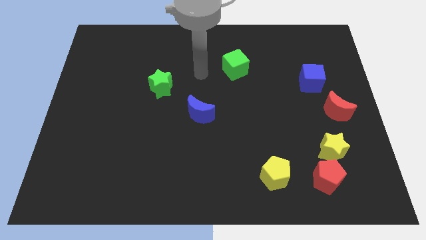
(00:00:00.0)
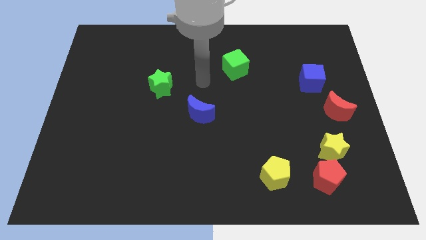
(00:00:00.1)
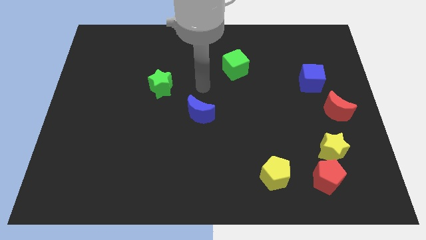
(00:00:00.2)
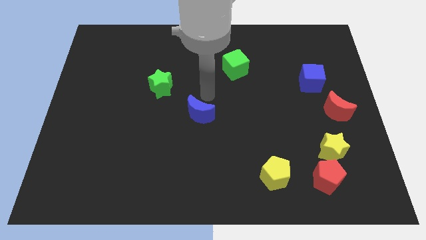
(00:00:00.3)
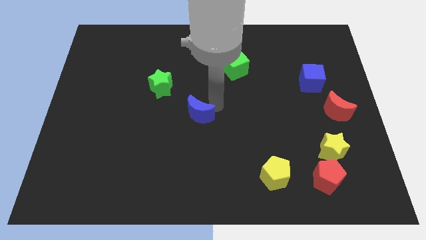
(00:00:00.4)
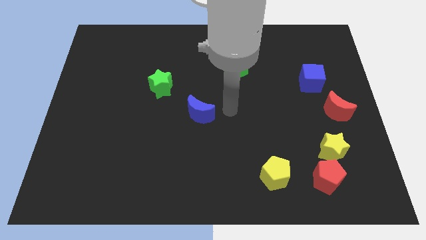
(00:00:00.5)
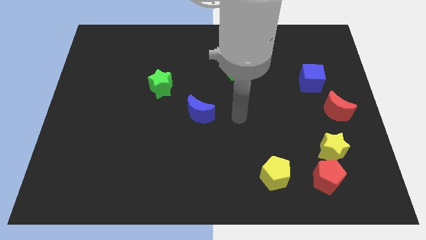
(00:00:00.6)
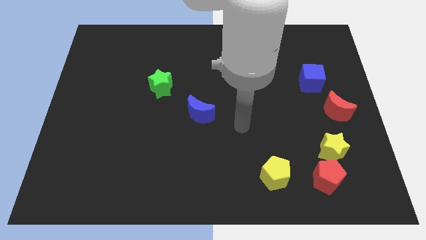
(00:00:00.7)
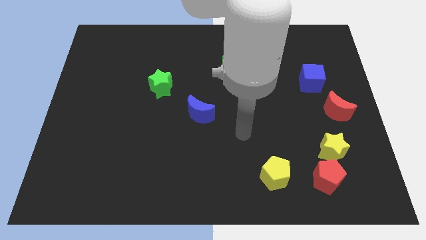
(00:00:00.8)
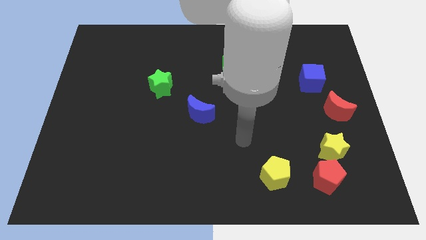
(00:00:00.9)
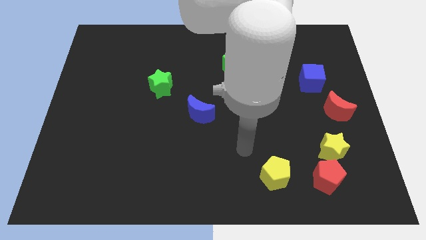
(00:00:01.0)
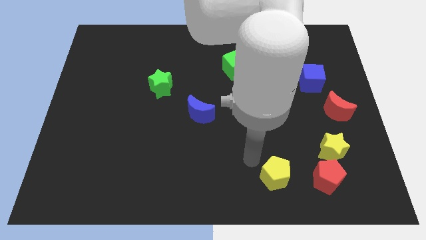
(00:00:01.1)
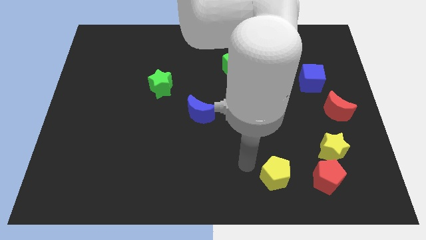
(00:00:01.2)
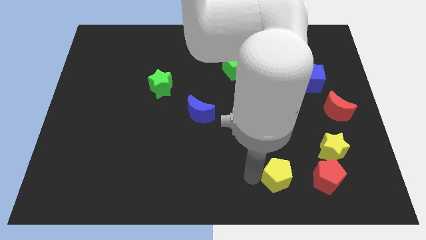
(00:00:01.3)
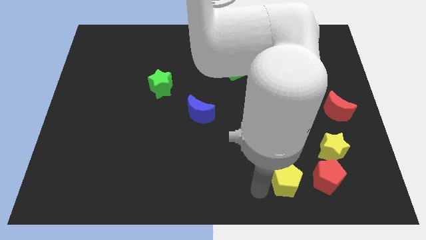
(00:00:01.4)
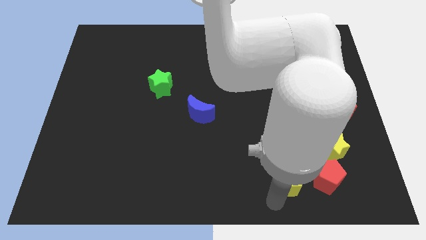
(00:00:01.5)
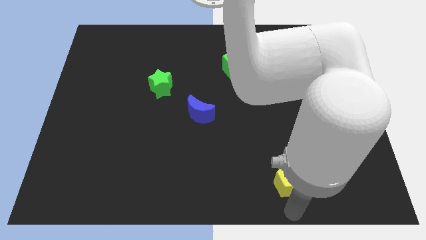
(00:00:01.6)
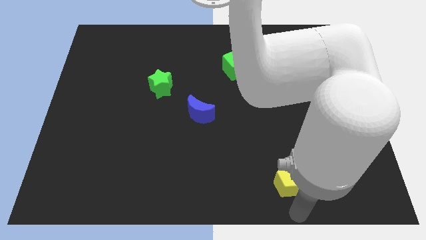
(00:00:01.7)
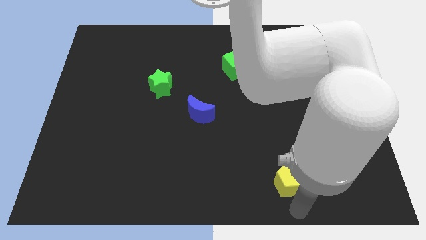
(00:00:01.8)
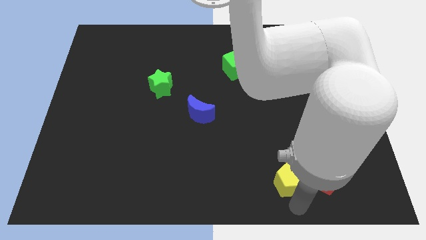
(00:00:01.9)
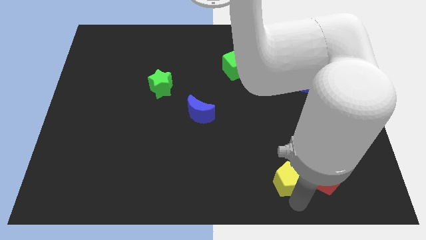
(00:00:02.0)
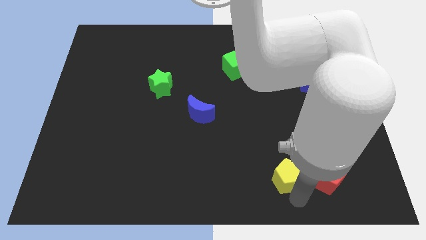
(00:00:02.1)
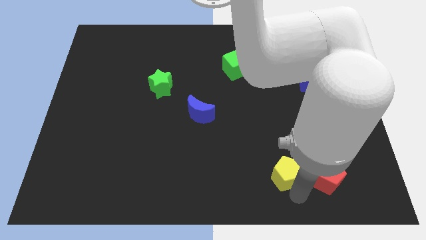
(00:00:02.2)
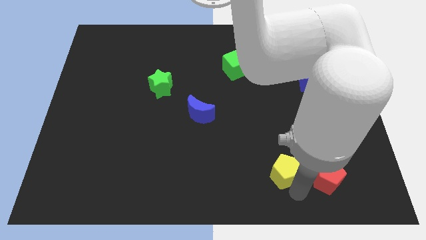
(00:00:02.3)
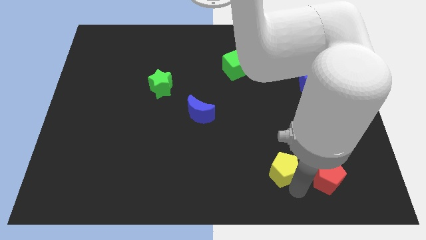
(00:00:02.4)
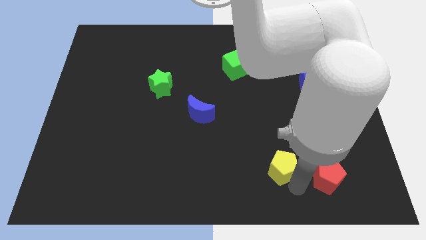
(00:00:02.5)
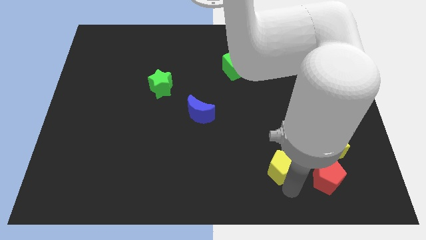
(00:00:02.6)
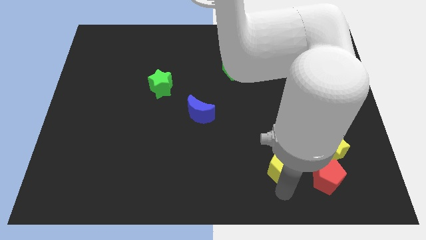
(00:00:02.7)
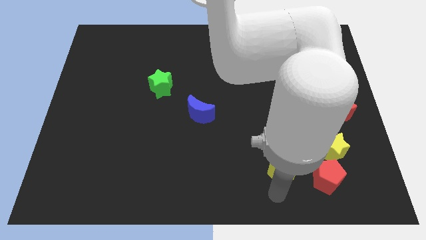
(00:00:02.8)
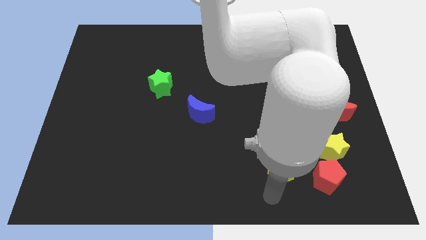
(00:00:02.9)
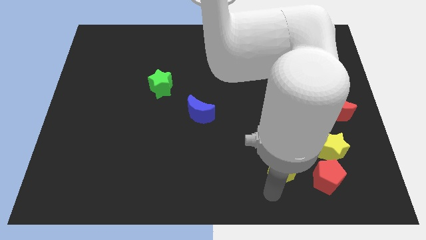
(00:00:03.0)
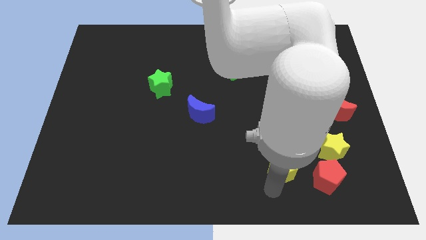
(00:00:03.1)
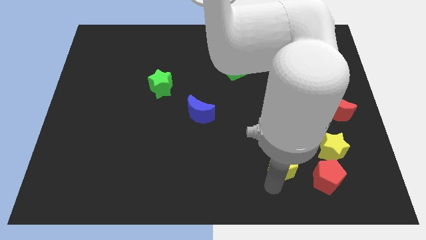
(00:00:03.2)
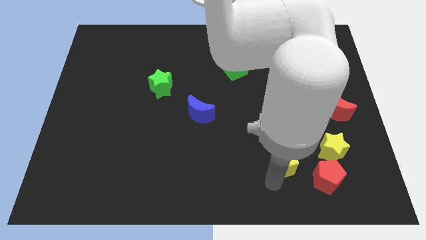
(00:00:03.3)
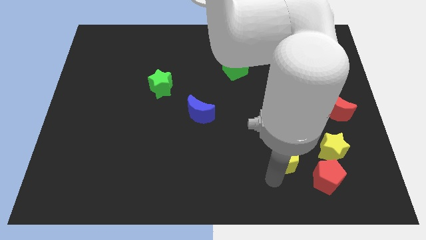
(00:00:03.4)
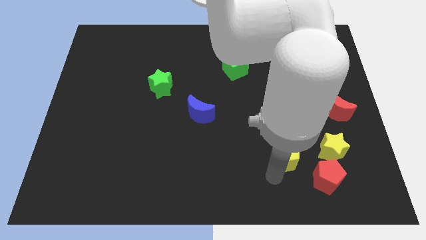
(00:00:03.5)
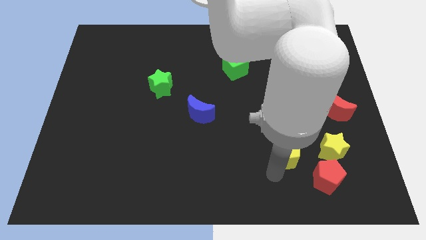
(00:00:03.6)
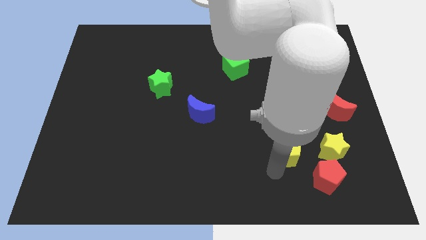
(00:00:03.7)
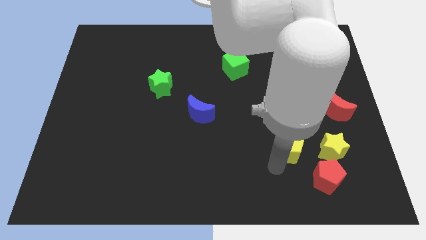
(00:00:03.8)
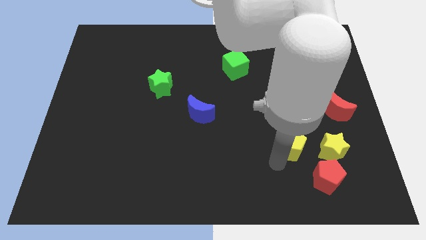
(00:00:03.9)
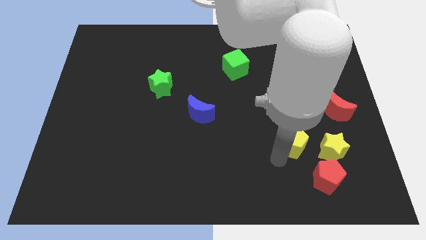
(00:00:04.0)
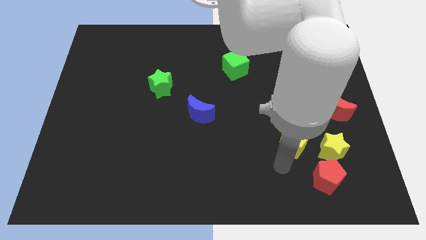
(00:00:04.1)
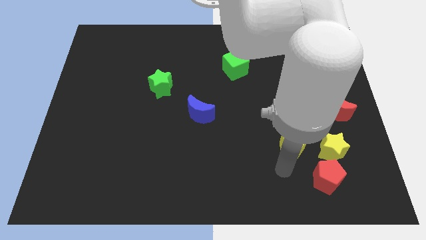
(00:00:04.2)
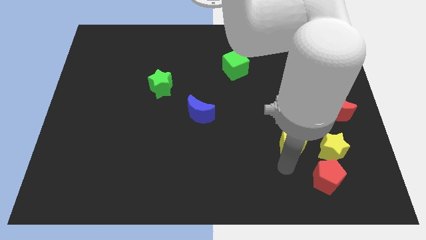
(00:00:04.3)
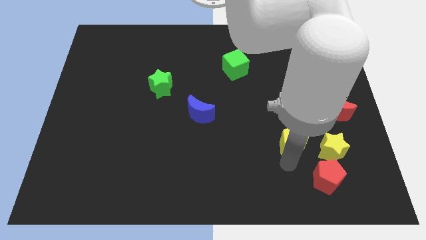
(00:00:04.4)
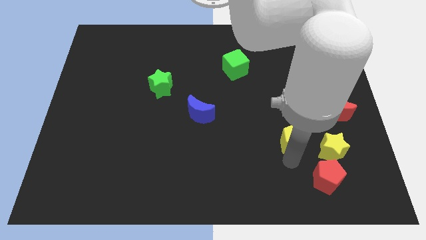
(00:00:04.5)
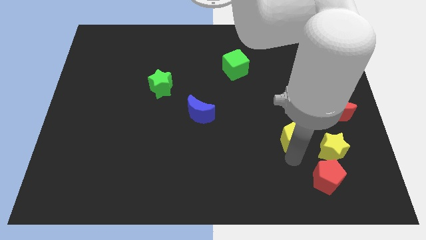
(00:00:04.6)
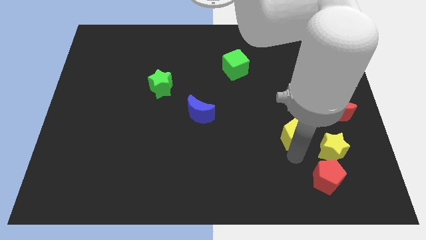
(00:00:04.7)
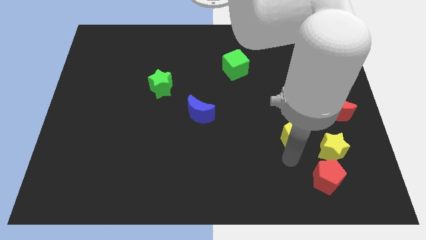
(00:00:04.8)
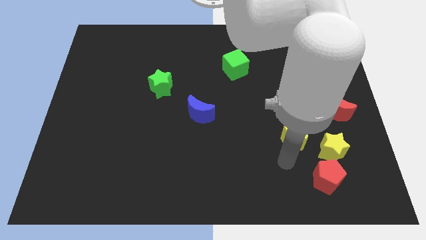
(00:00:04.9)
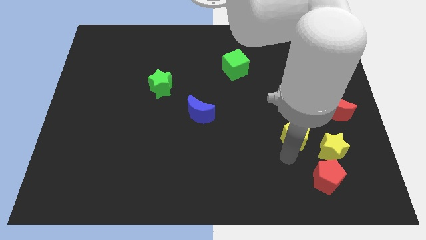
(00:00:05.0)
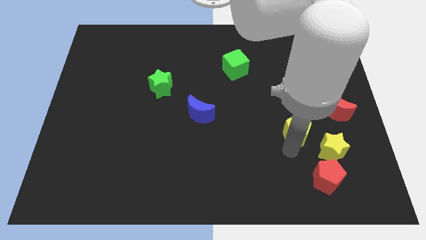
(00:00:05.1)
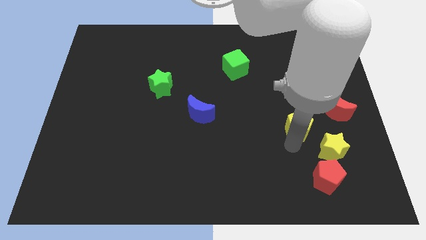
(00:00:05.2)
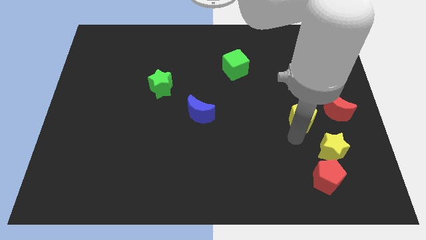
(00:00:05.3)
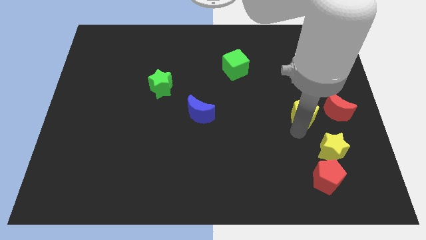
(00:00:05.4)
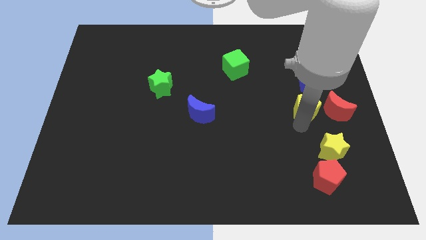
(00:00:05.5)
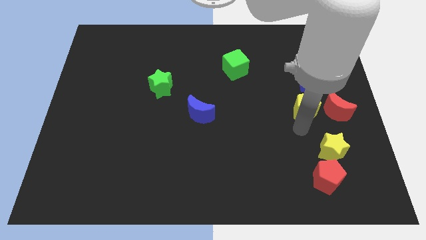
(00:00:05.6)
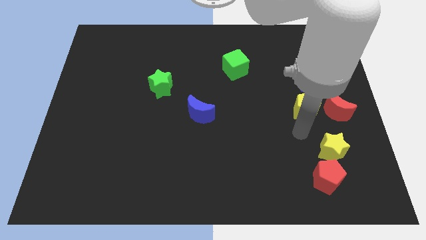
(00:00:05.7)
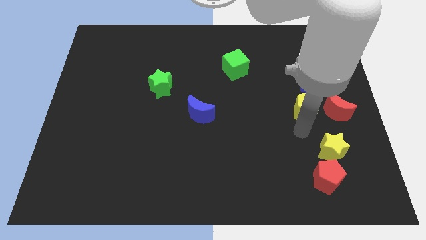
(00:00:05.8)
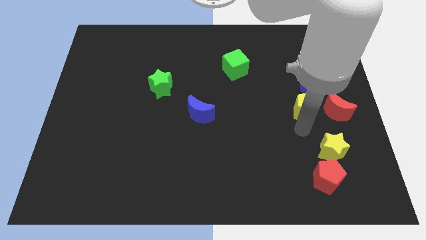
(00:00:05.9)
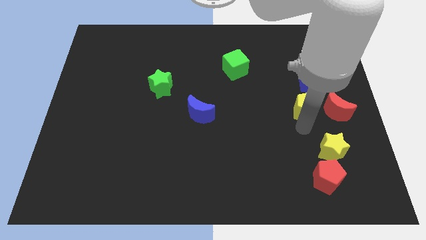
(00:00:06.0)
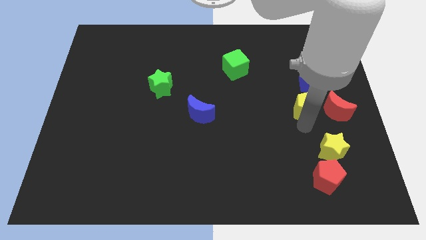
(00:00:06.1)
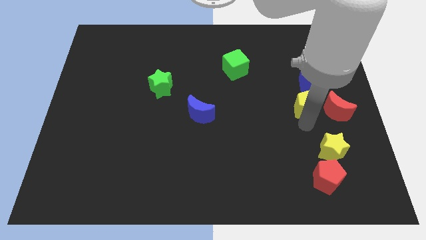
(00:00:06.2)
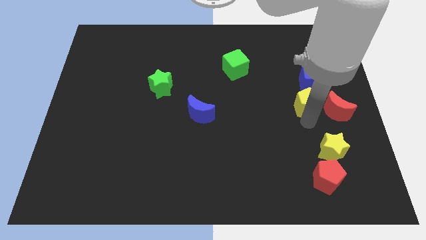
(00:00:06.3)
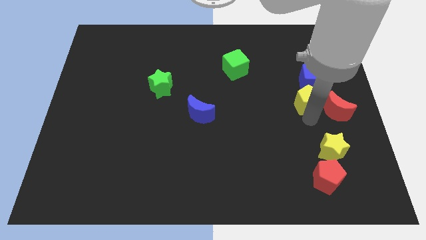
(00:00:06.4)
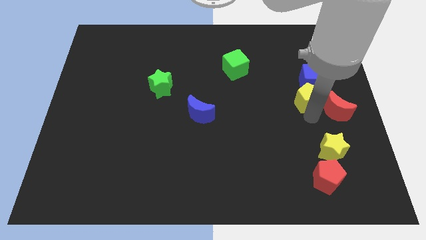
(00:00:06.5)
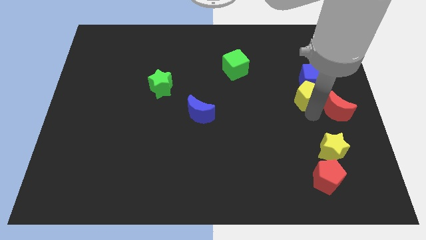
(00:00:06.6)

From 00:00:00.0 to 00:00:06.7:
put the yellow pentagon to the blue cube

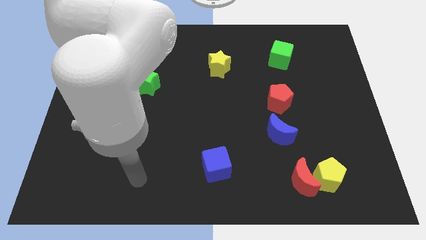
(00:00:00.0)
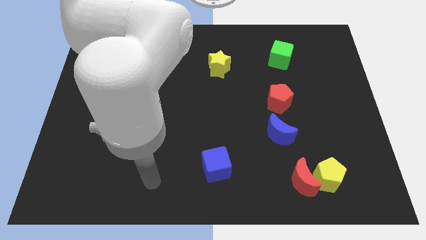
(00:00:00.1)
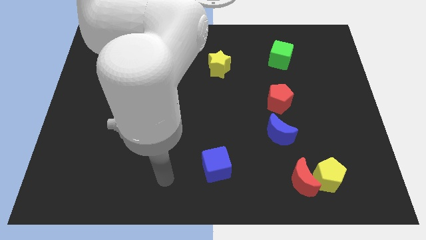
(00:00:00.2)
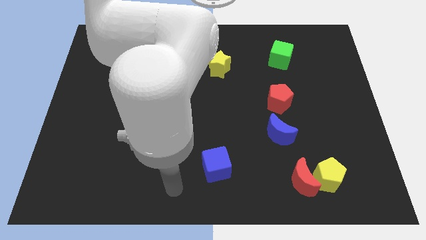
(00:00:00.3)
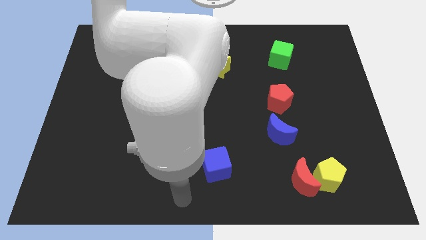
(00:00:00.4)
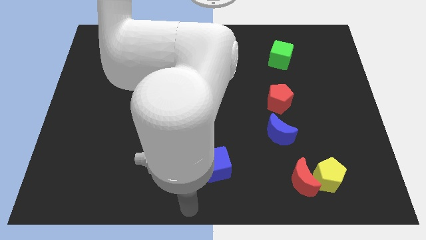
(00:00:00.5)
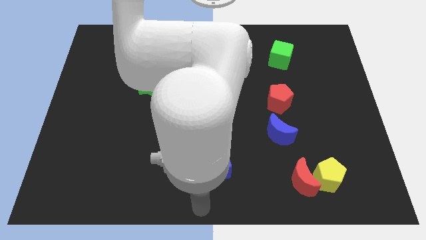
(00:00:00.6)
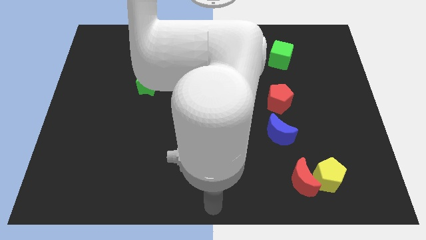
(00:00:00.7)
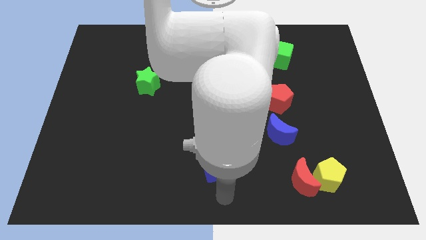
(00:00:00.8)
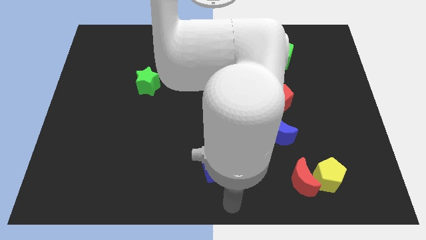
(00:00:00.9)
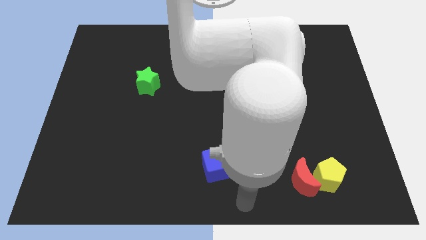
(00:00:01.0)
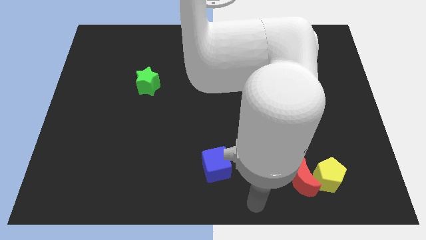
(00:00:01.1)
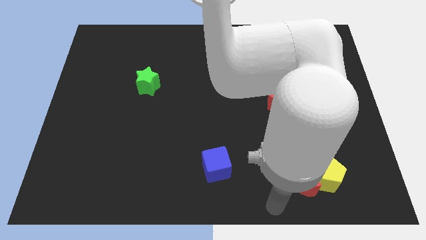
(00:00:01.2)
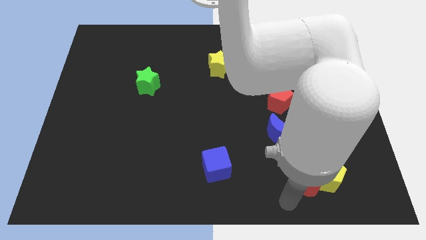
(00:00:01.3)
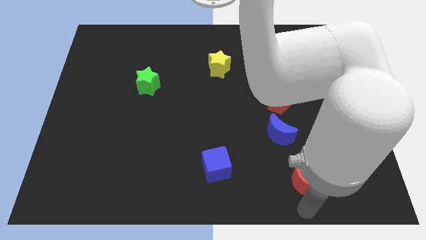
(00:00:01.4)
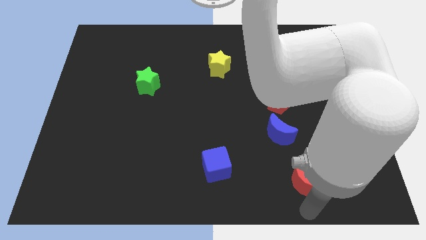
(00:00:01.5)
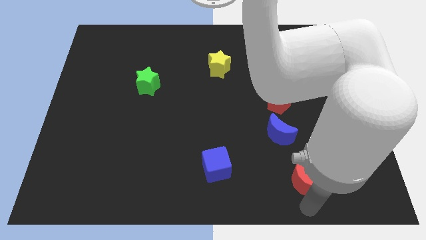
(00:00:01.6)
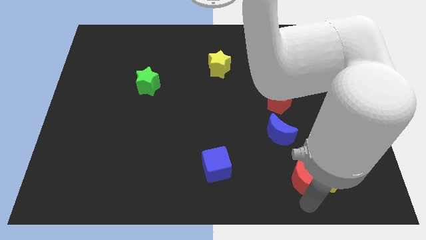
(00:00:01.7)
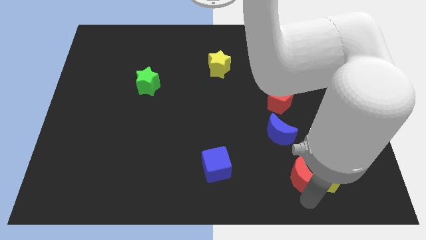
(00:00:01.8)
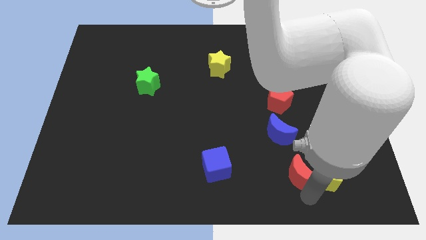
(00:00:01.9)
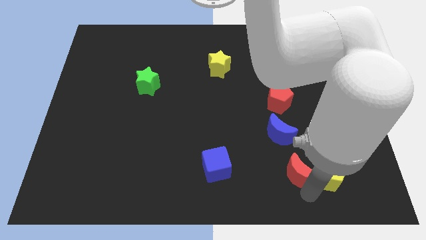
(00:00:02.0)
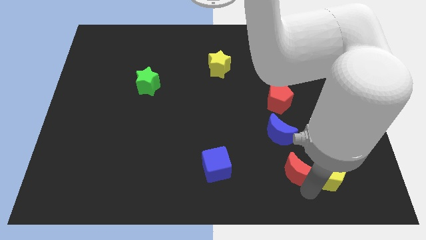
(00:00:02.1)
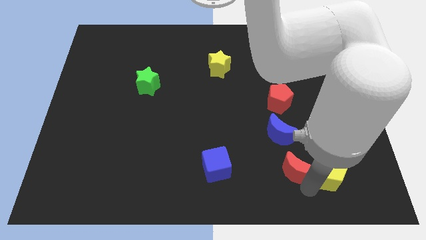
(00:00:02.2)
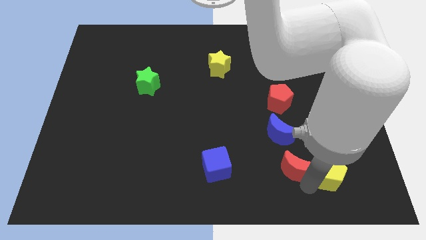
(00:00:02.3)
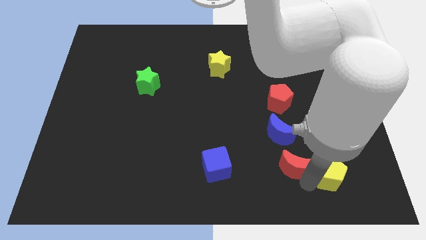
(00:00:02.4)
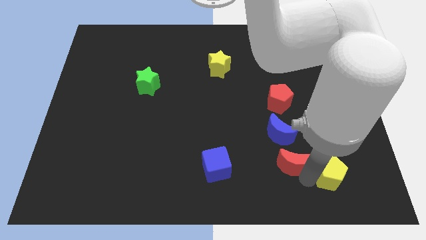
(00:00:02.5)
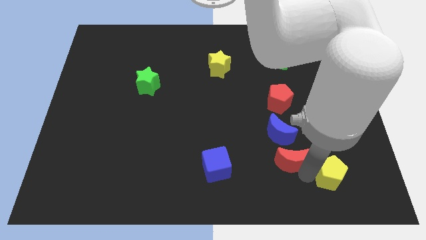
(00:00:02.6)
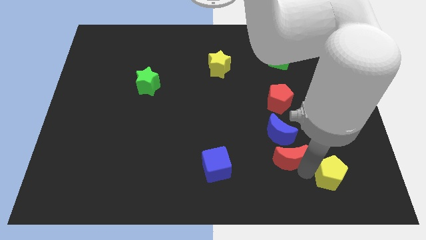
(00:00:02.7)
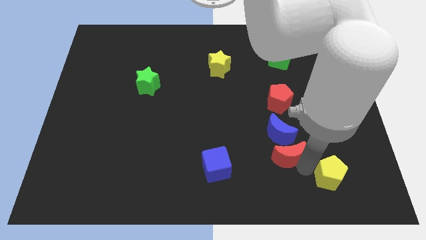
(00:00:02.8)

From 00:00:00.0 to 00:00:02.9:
push the red moon close to the blue moon
